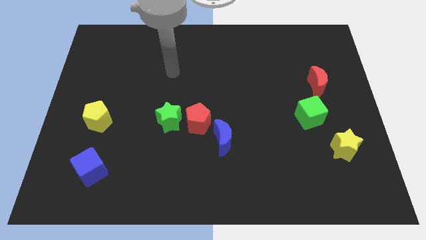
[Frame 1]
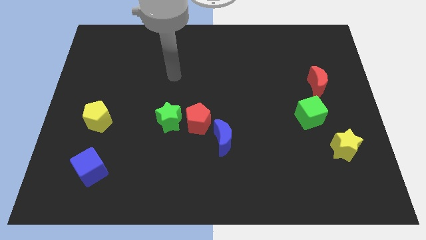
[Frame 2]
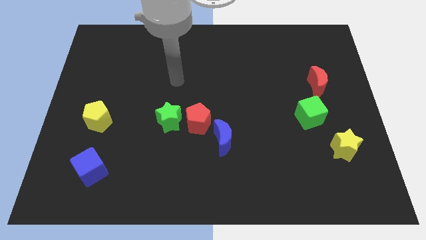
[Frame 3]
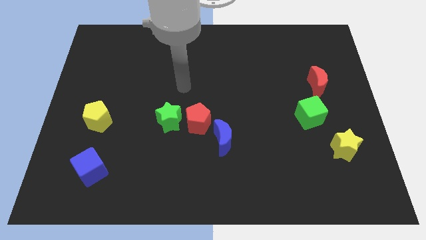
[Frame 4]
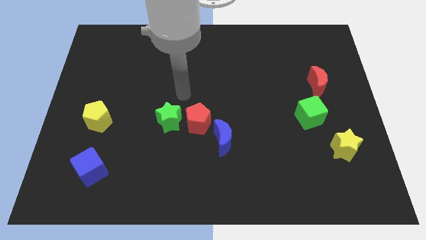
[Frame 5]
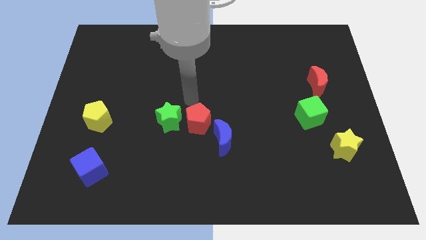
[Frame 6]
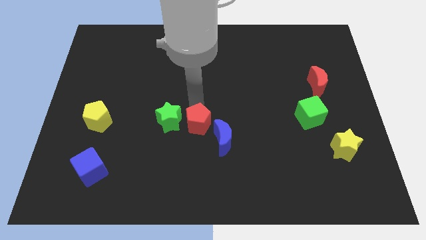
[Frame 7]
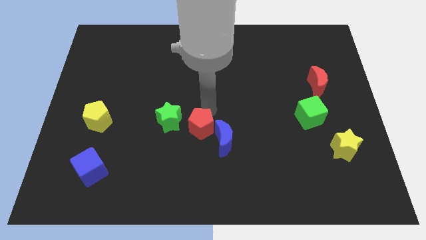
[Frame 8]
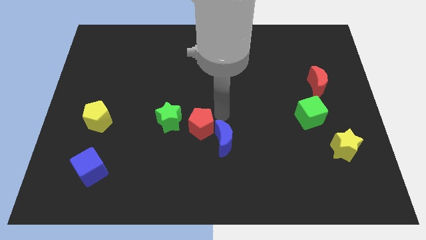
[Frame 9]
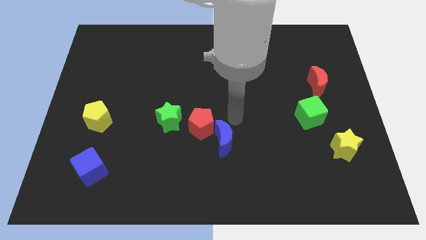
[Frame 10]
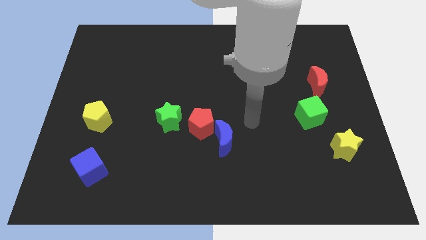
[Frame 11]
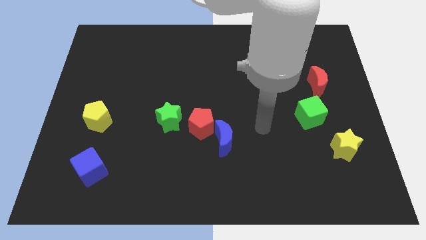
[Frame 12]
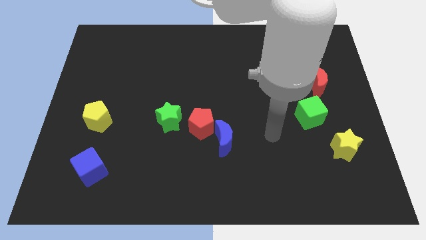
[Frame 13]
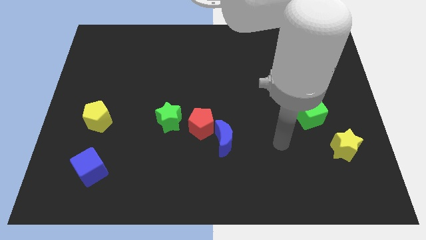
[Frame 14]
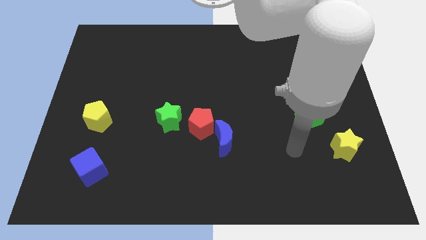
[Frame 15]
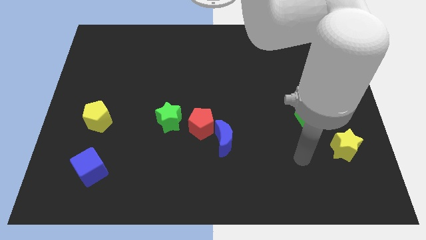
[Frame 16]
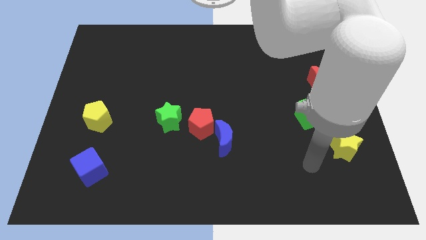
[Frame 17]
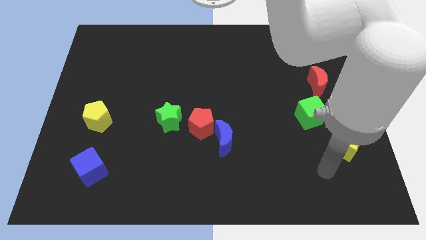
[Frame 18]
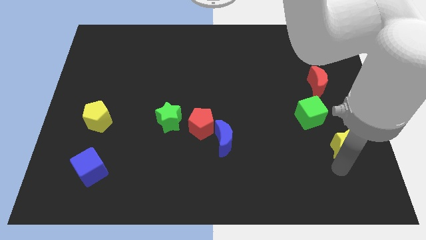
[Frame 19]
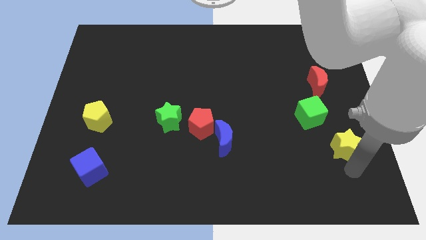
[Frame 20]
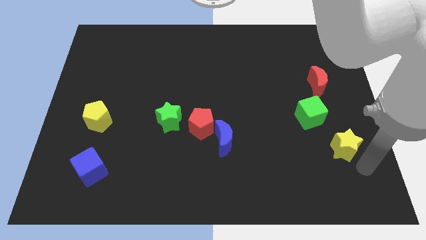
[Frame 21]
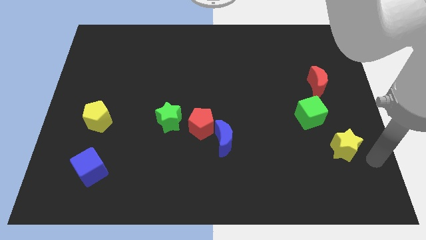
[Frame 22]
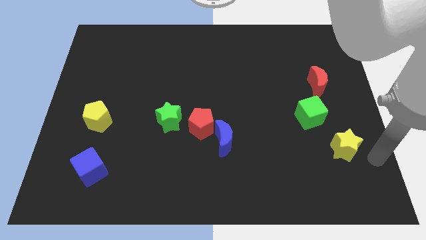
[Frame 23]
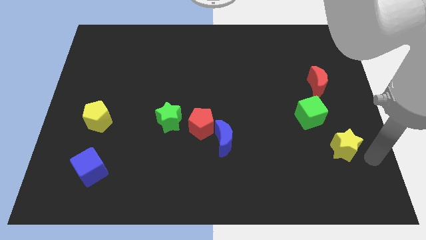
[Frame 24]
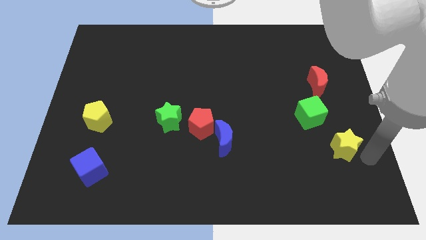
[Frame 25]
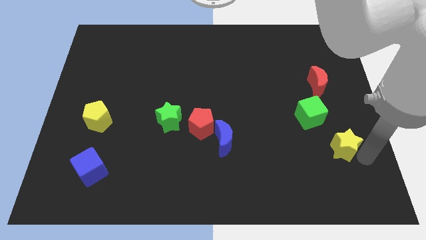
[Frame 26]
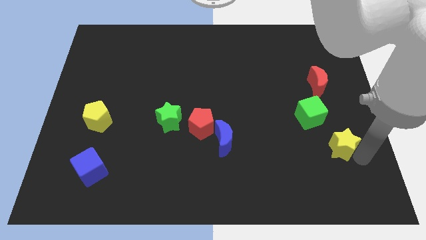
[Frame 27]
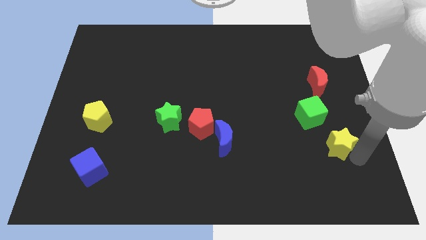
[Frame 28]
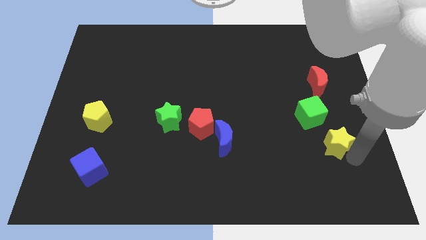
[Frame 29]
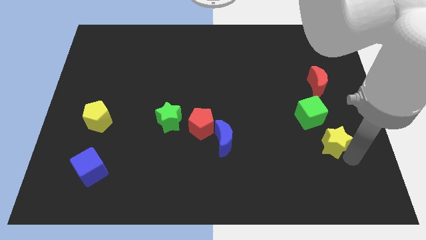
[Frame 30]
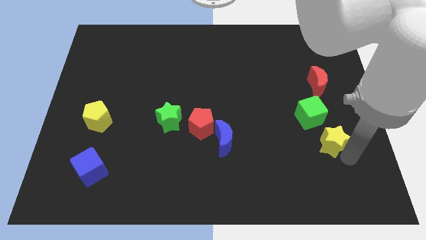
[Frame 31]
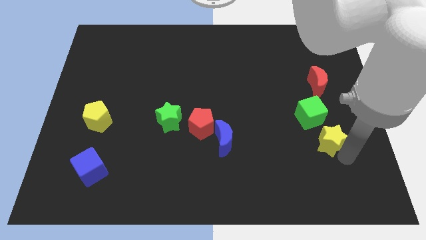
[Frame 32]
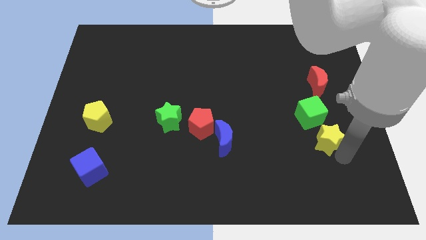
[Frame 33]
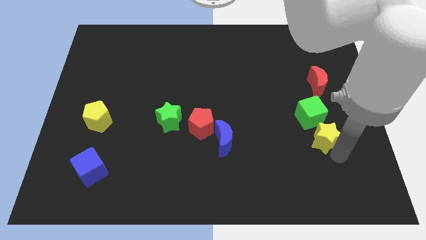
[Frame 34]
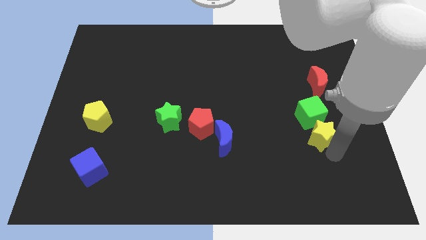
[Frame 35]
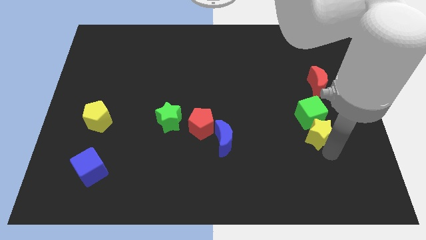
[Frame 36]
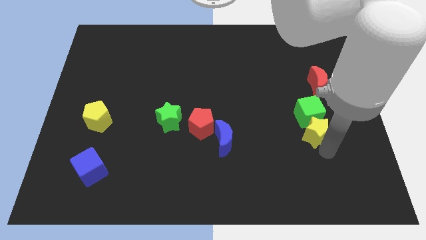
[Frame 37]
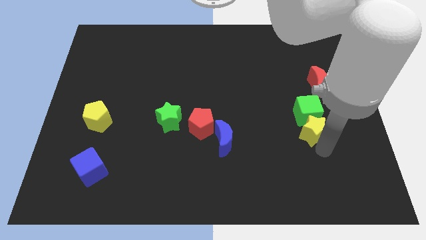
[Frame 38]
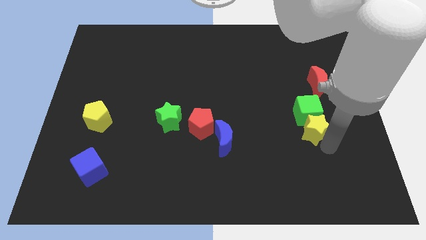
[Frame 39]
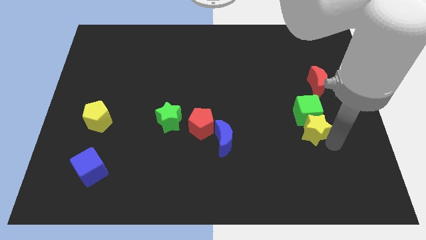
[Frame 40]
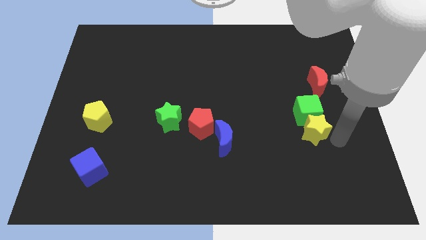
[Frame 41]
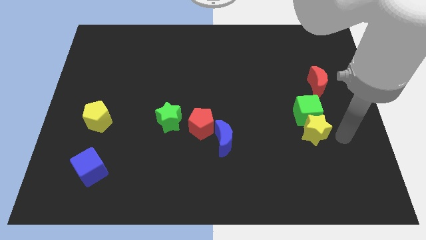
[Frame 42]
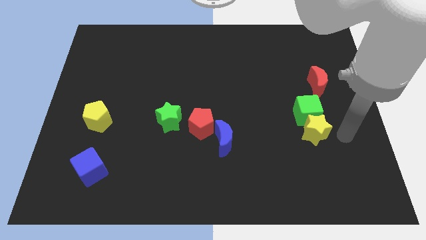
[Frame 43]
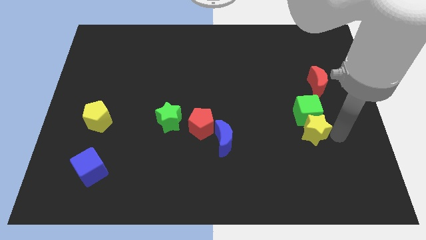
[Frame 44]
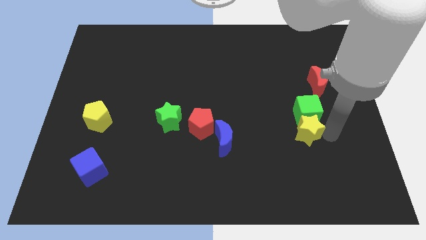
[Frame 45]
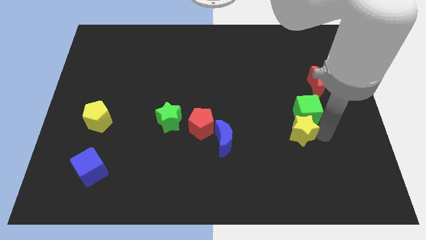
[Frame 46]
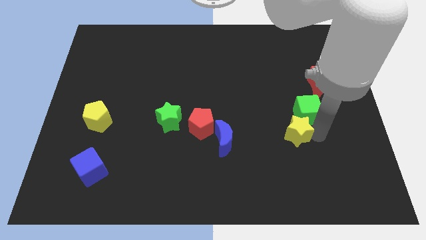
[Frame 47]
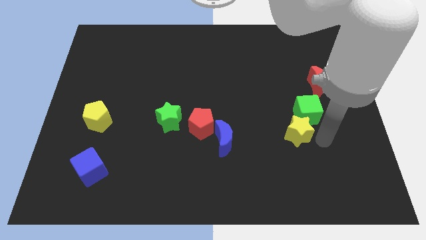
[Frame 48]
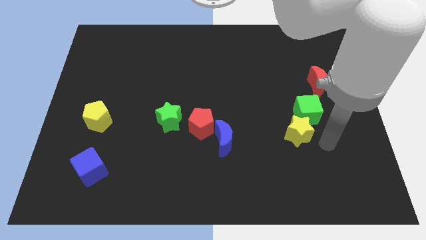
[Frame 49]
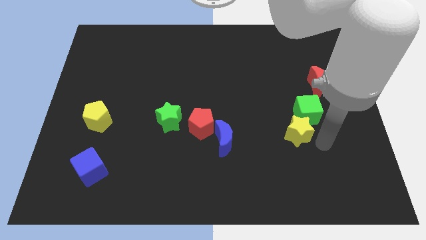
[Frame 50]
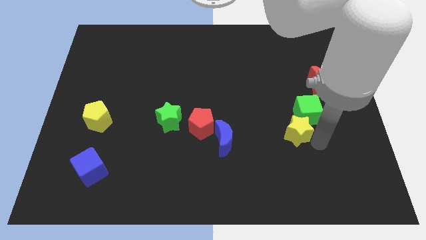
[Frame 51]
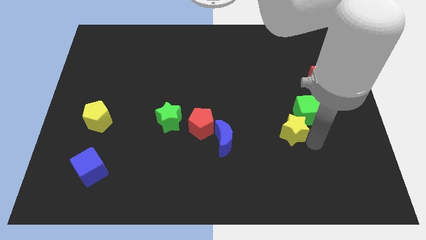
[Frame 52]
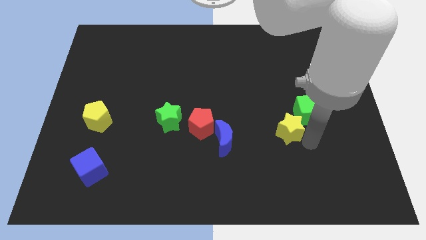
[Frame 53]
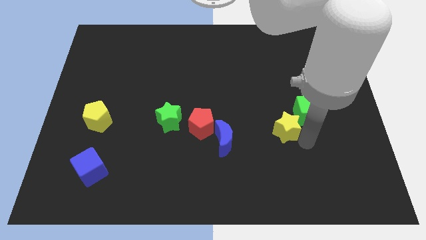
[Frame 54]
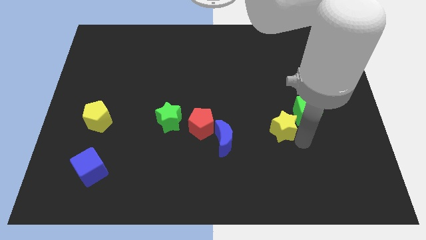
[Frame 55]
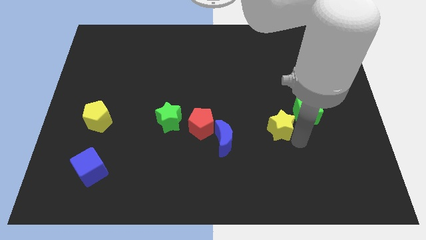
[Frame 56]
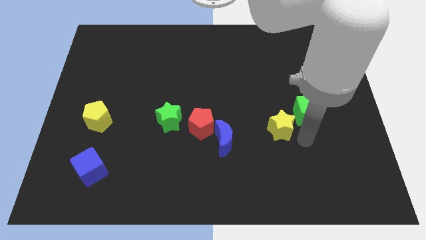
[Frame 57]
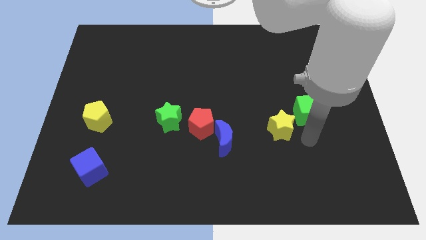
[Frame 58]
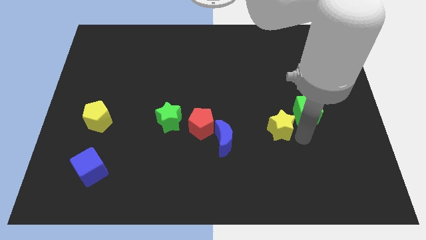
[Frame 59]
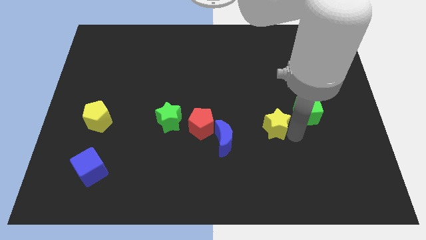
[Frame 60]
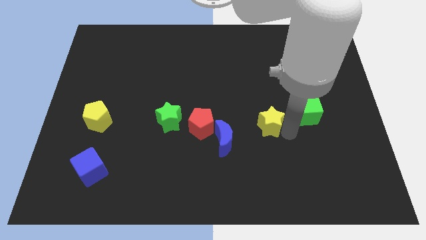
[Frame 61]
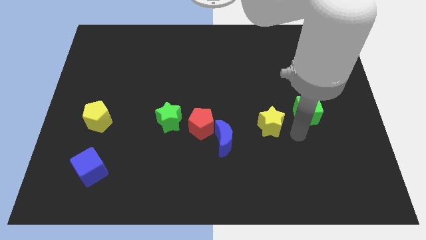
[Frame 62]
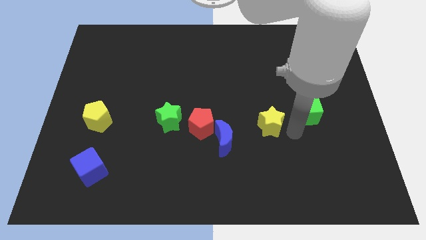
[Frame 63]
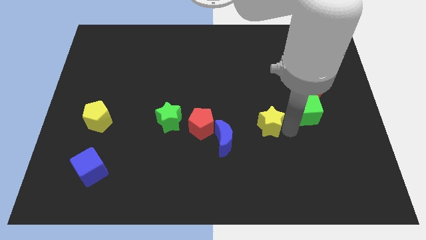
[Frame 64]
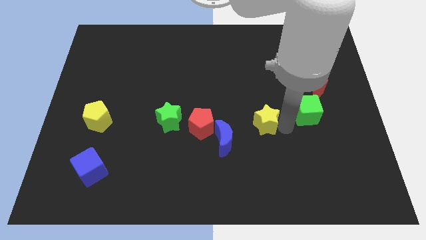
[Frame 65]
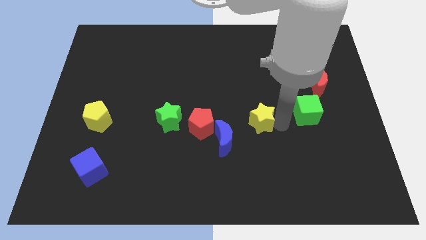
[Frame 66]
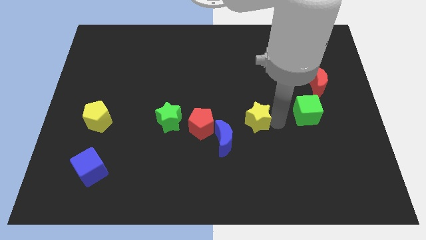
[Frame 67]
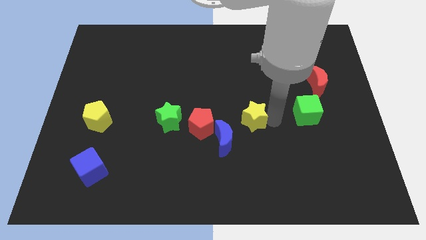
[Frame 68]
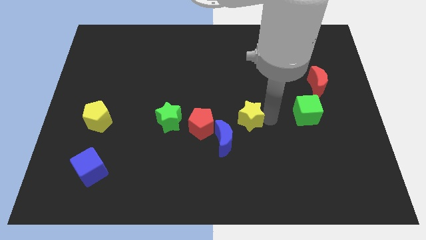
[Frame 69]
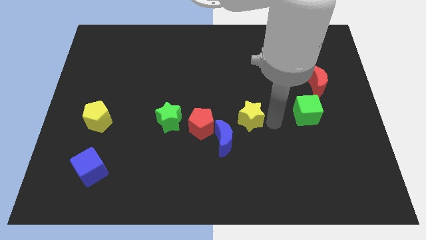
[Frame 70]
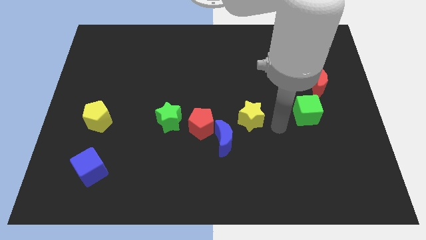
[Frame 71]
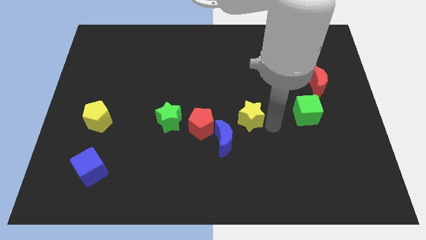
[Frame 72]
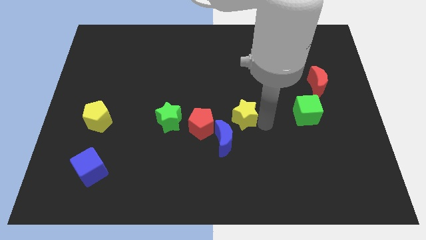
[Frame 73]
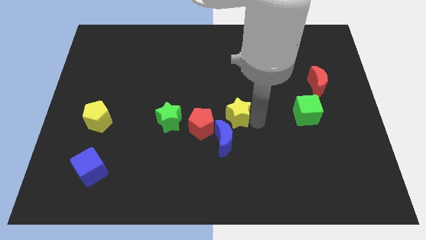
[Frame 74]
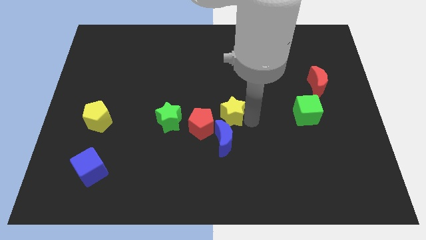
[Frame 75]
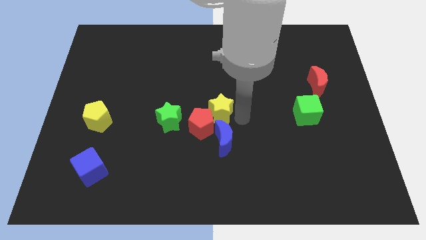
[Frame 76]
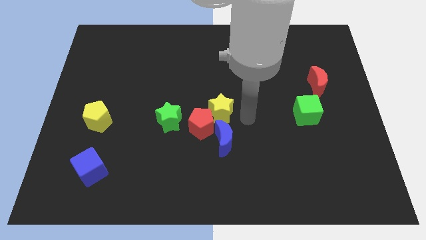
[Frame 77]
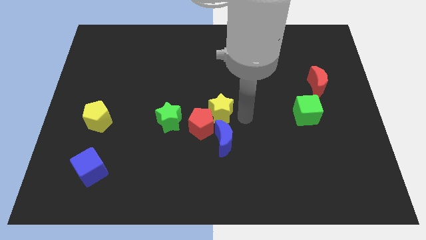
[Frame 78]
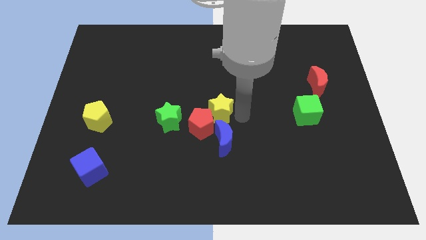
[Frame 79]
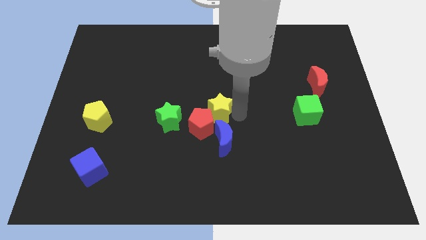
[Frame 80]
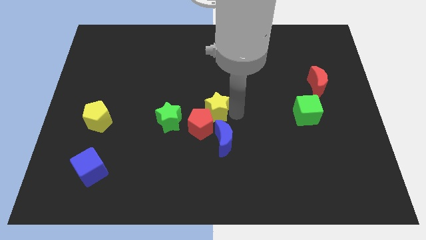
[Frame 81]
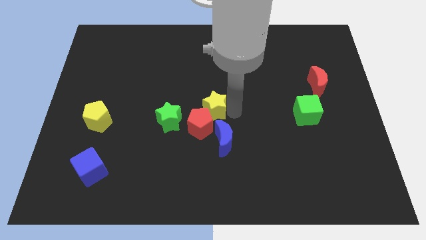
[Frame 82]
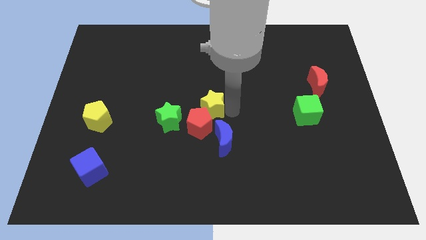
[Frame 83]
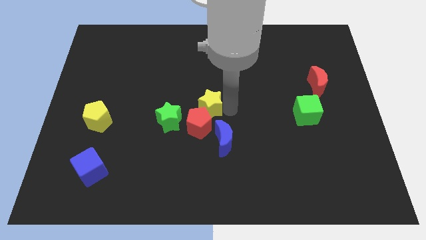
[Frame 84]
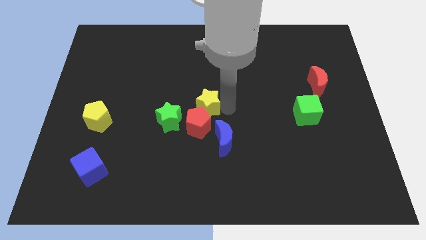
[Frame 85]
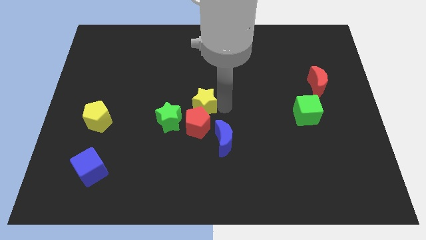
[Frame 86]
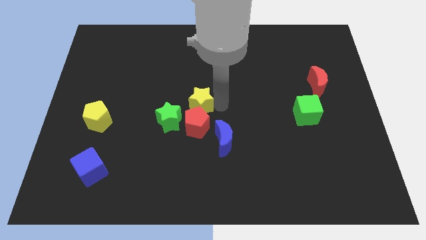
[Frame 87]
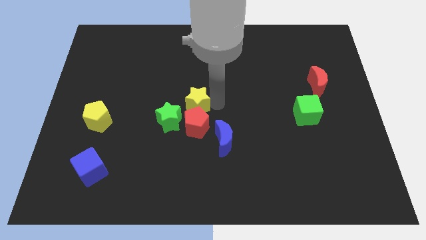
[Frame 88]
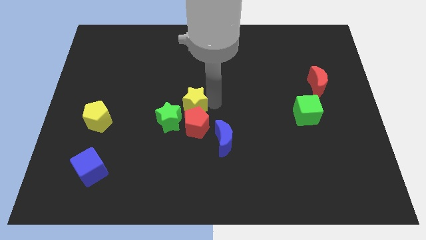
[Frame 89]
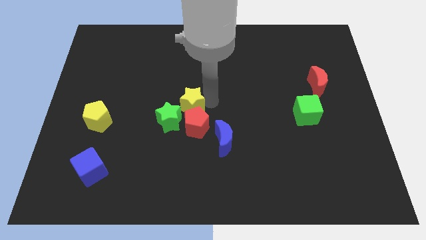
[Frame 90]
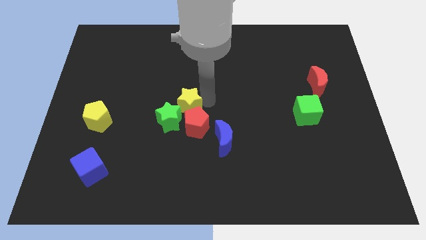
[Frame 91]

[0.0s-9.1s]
push the yellow star to the green star
